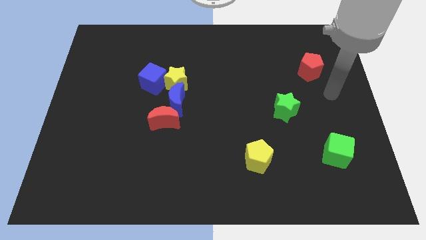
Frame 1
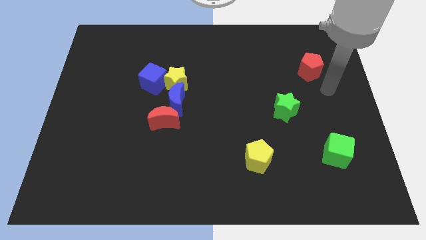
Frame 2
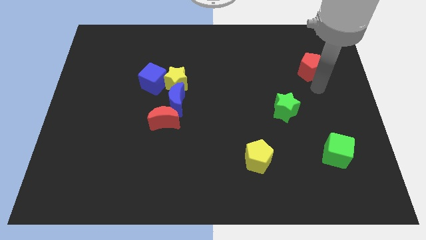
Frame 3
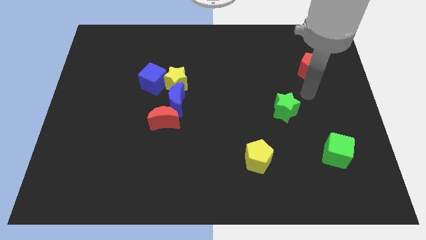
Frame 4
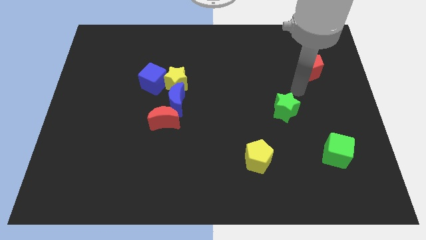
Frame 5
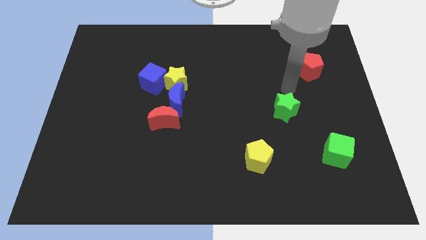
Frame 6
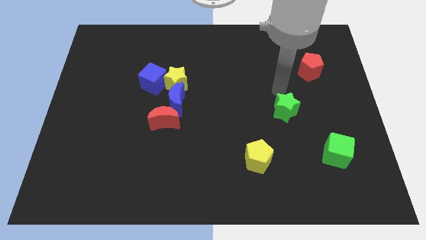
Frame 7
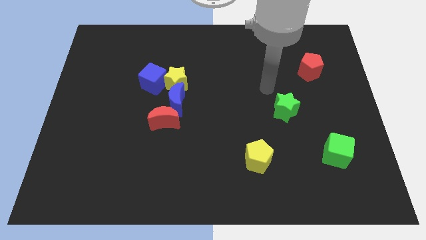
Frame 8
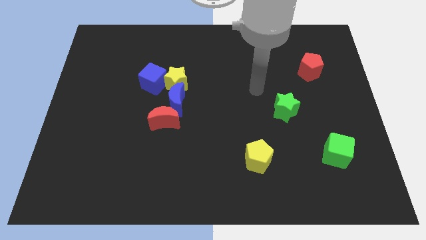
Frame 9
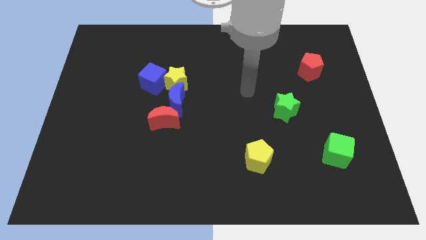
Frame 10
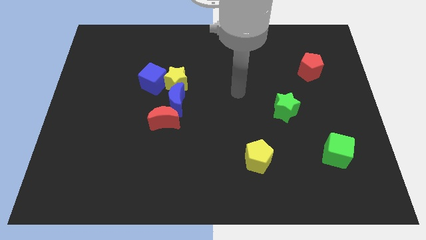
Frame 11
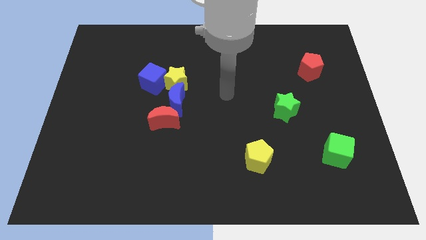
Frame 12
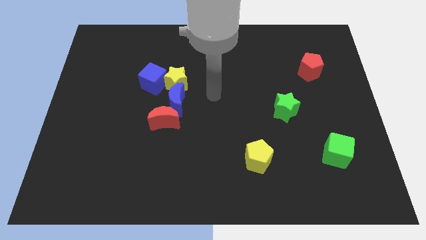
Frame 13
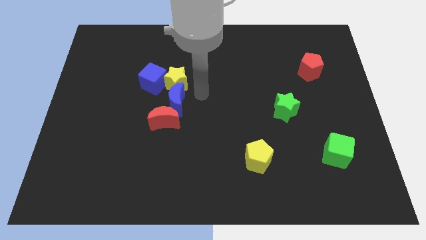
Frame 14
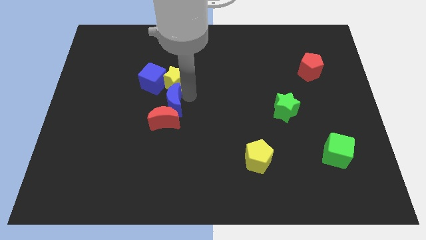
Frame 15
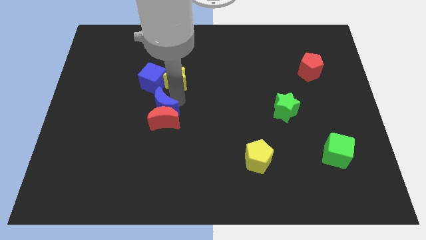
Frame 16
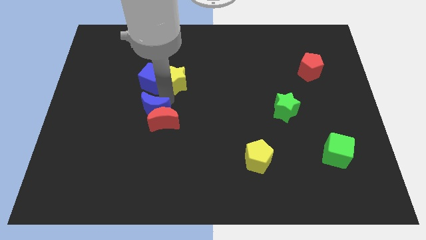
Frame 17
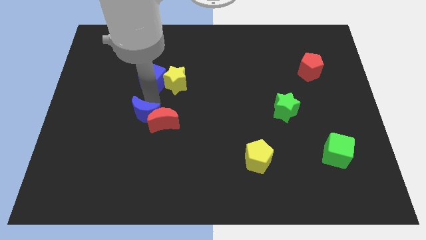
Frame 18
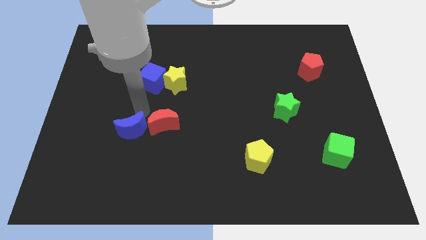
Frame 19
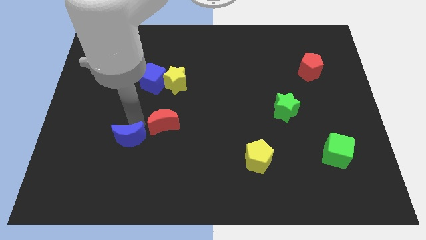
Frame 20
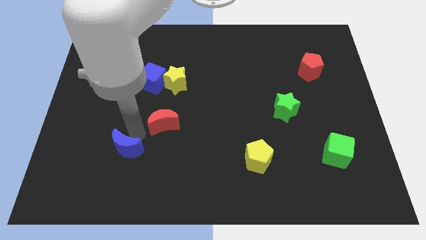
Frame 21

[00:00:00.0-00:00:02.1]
move the red moon away from the blue moon

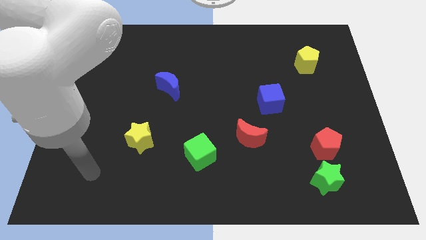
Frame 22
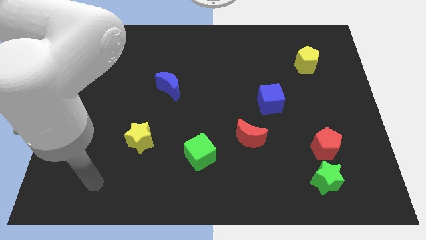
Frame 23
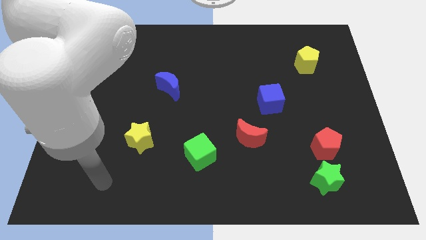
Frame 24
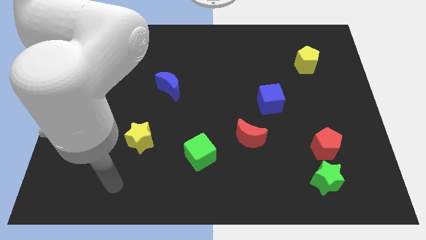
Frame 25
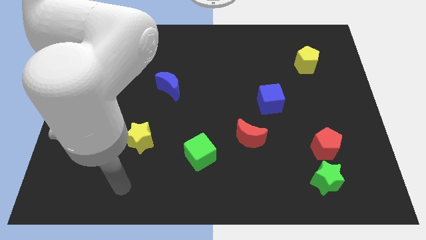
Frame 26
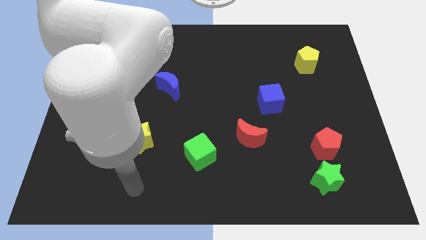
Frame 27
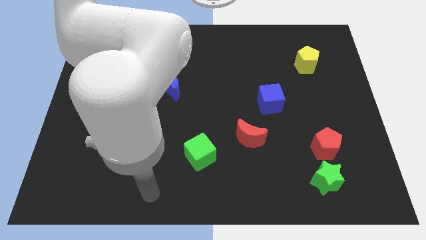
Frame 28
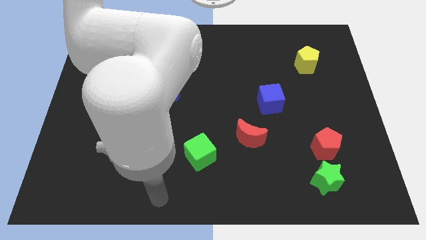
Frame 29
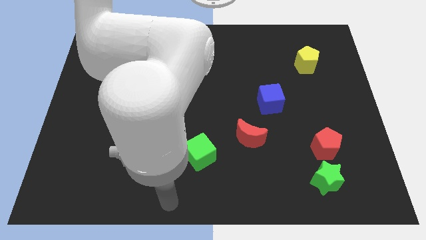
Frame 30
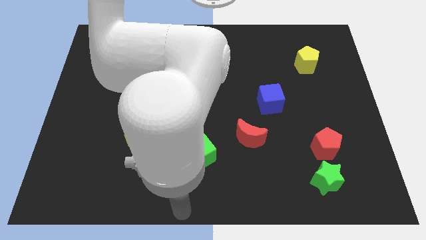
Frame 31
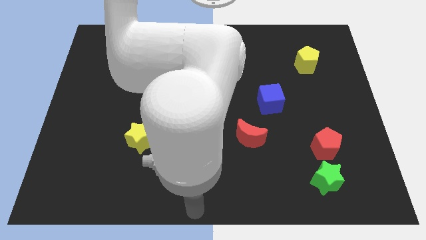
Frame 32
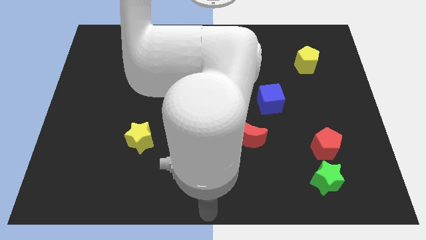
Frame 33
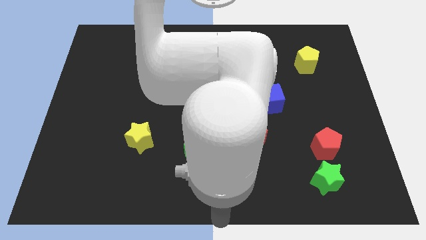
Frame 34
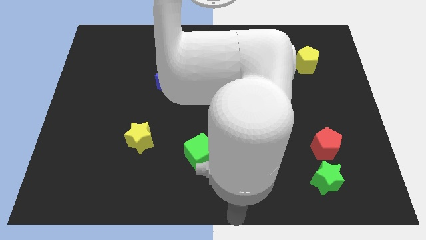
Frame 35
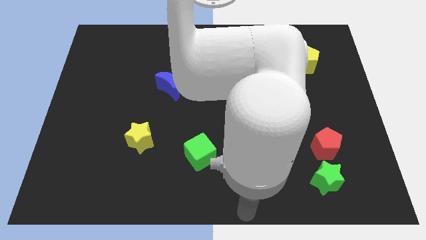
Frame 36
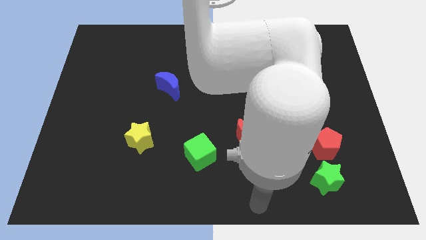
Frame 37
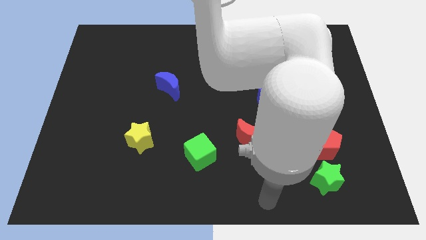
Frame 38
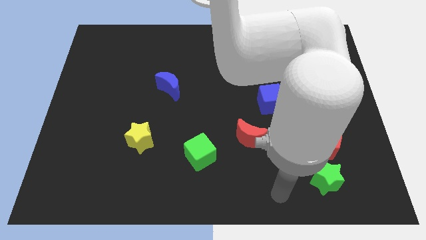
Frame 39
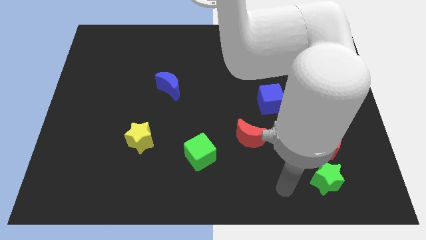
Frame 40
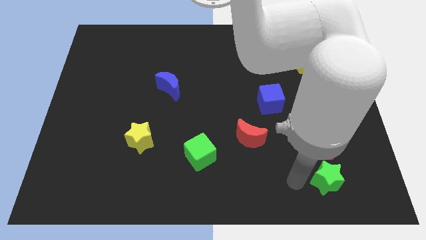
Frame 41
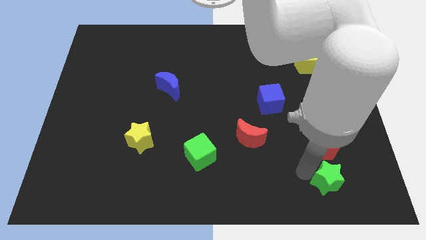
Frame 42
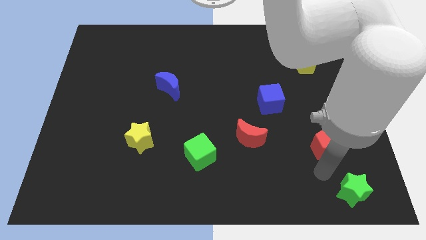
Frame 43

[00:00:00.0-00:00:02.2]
separate the red pentagon from the green star

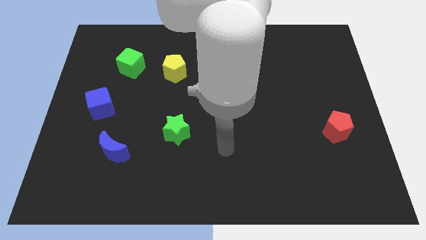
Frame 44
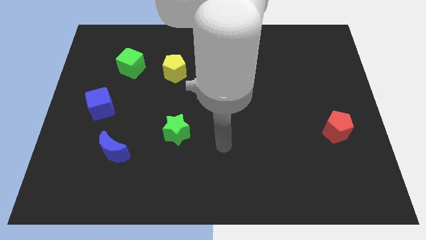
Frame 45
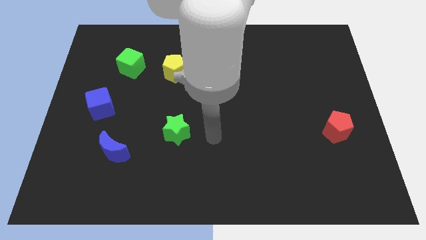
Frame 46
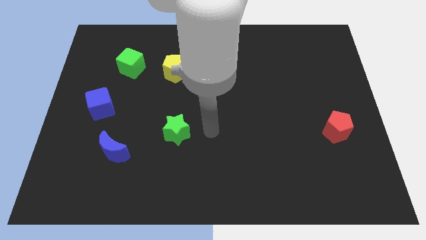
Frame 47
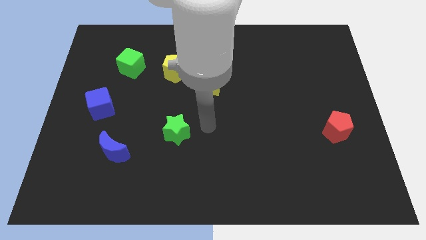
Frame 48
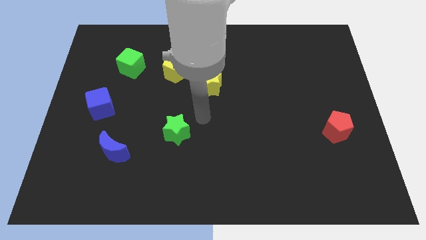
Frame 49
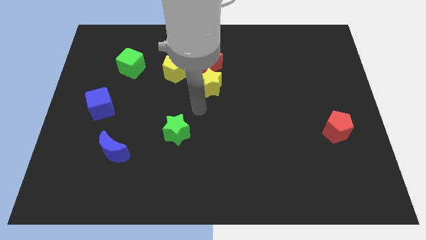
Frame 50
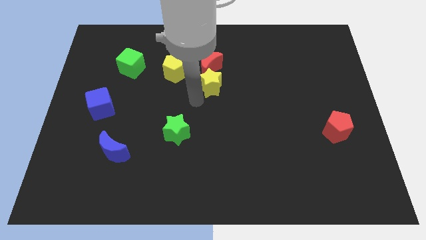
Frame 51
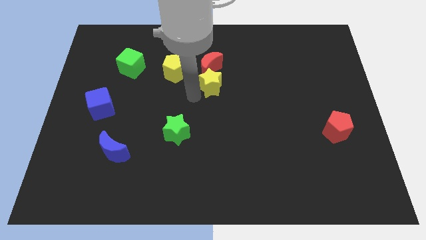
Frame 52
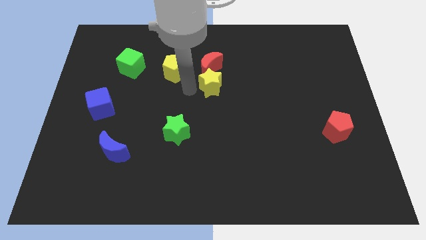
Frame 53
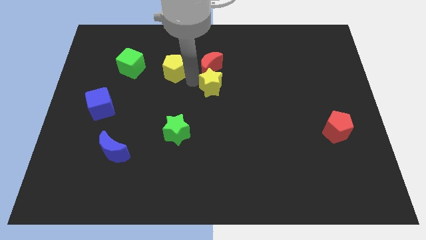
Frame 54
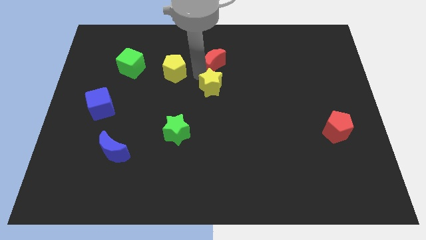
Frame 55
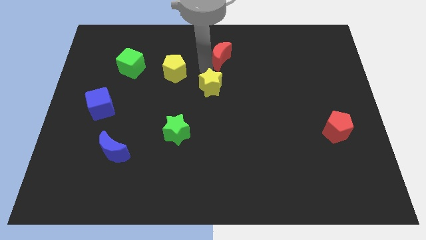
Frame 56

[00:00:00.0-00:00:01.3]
move the yellow star away from the red moon

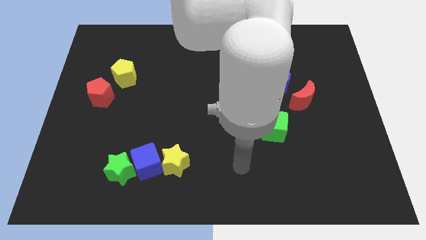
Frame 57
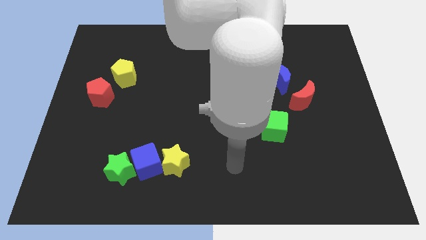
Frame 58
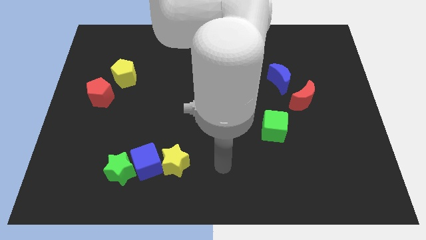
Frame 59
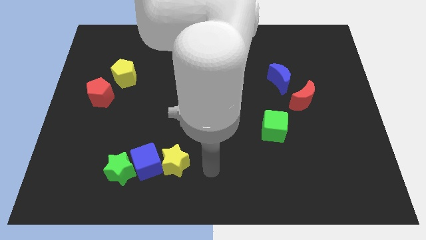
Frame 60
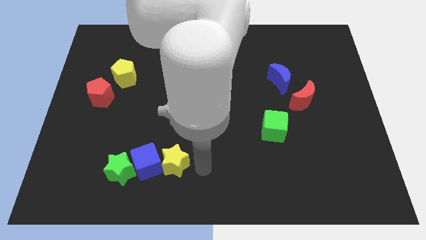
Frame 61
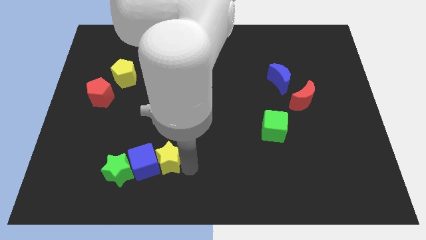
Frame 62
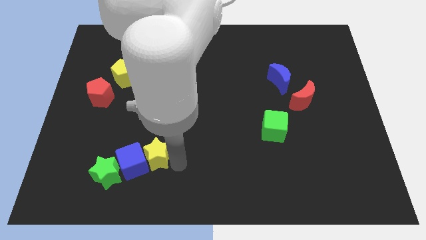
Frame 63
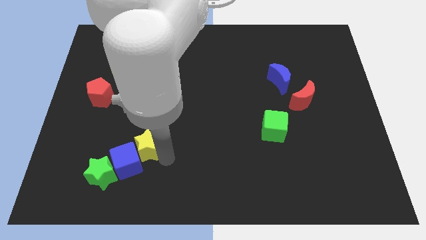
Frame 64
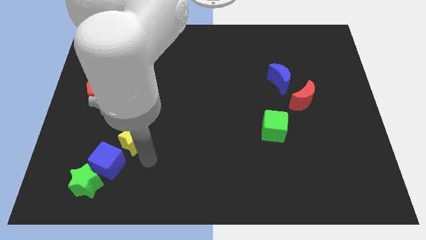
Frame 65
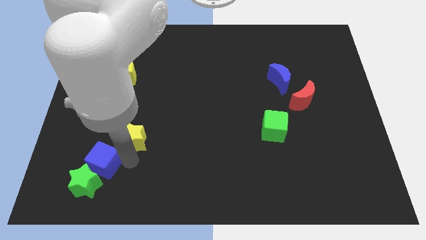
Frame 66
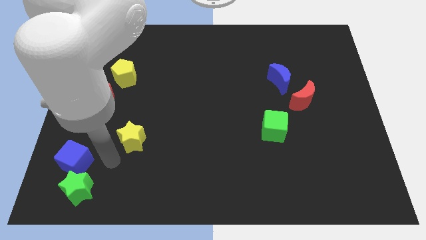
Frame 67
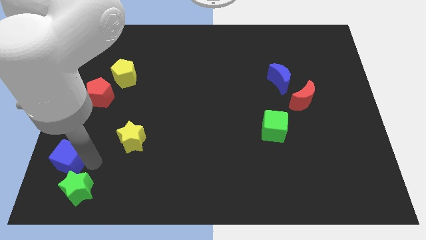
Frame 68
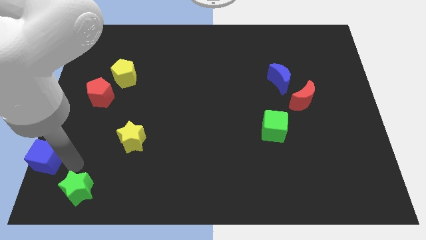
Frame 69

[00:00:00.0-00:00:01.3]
pull the green star apart from the blue cube

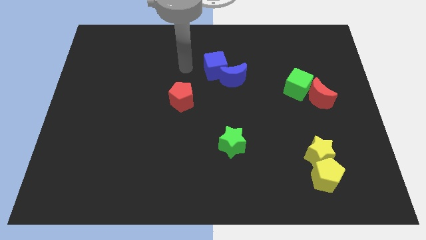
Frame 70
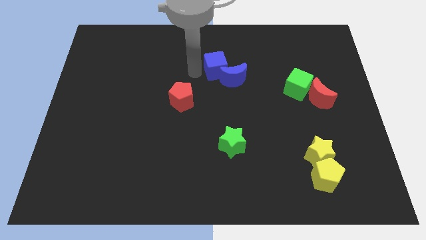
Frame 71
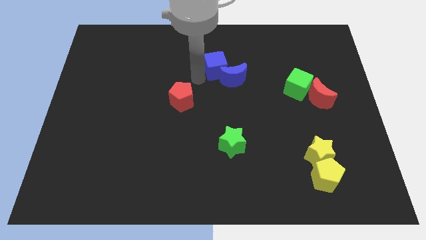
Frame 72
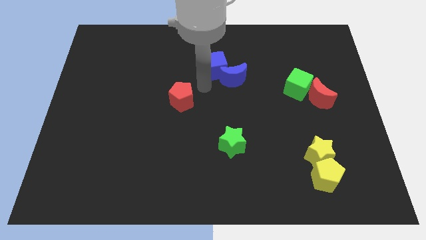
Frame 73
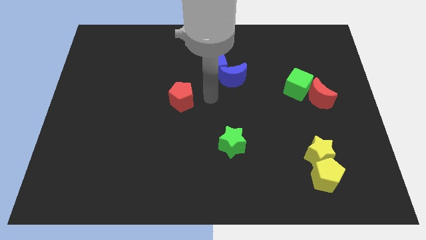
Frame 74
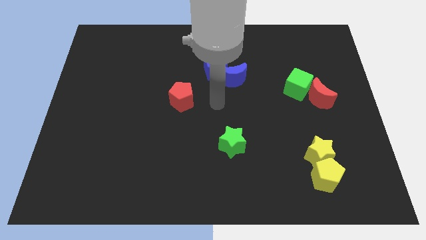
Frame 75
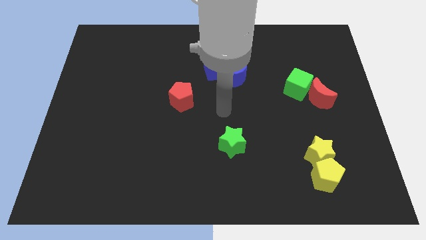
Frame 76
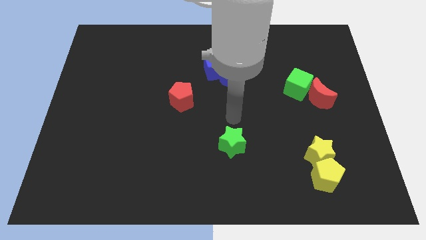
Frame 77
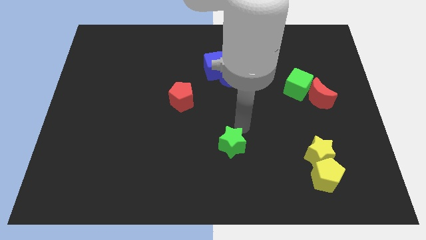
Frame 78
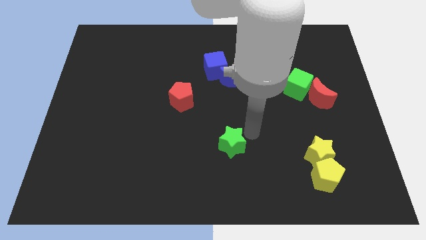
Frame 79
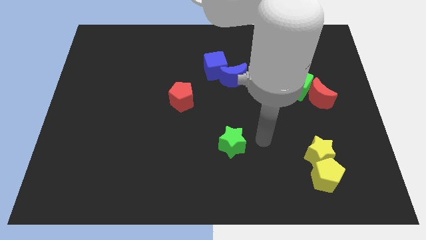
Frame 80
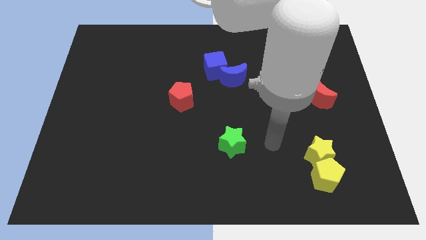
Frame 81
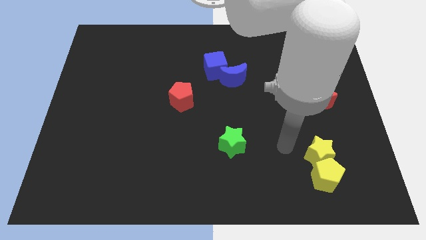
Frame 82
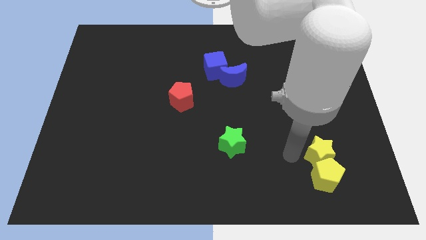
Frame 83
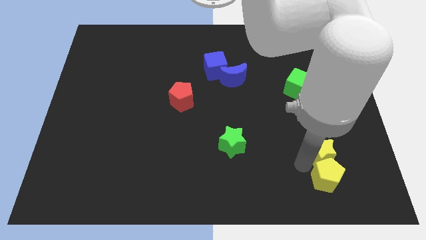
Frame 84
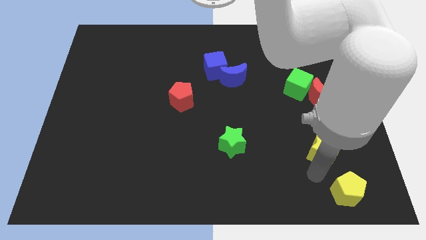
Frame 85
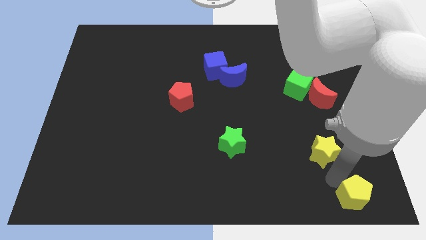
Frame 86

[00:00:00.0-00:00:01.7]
move the yellow star away from the yellow pentagon

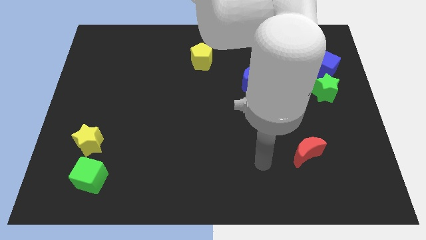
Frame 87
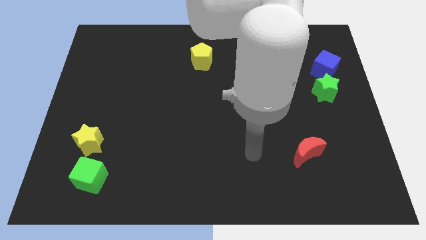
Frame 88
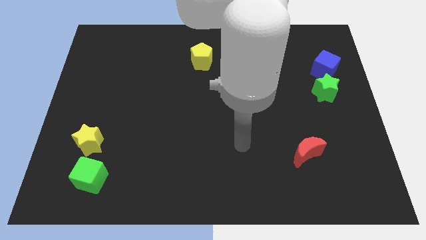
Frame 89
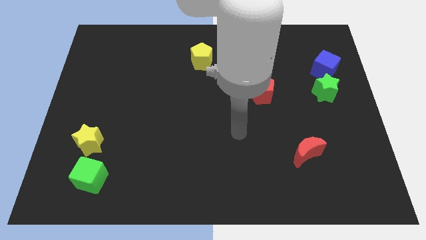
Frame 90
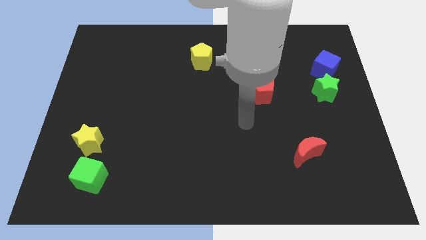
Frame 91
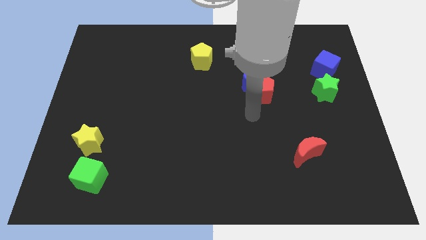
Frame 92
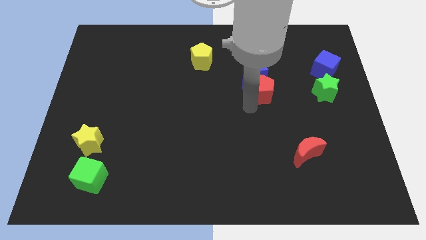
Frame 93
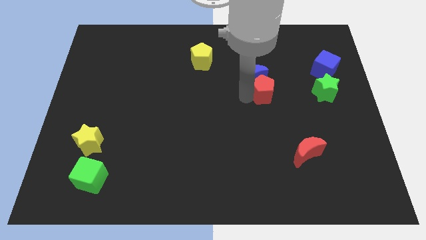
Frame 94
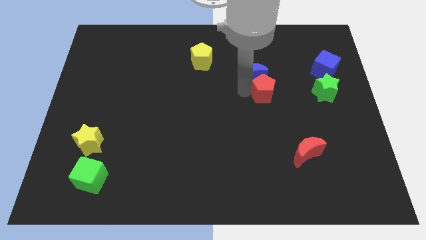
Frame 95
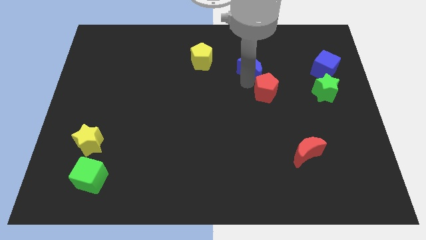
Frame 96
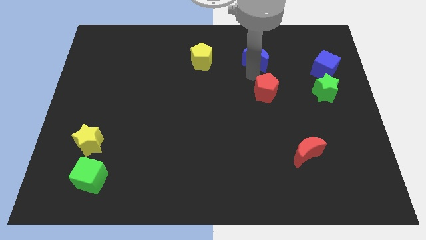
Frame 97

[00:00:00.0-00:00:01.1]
move the red pentagon away from the blue moon
